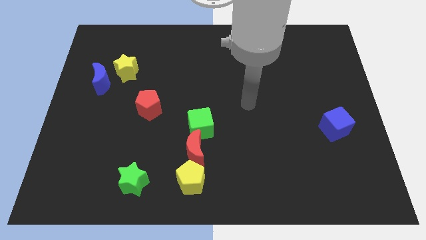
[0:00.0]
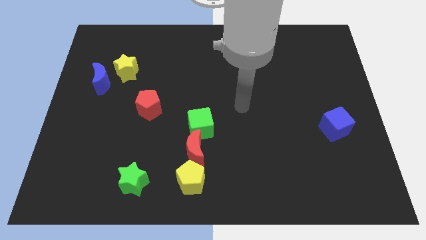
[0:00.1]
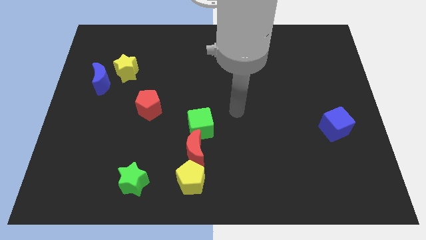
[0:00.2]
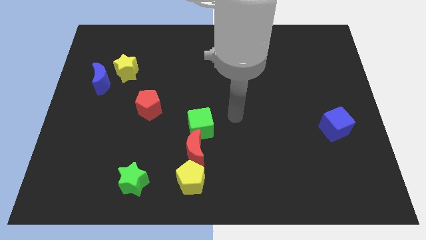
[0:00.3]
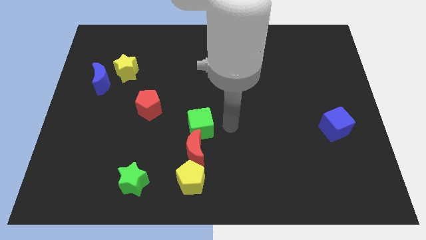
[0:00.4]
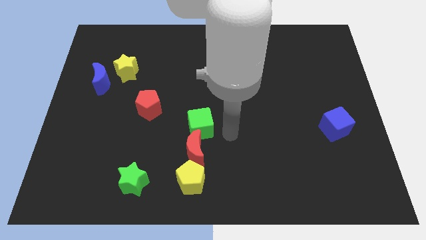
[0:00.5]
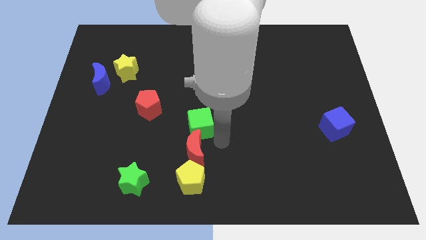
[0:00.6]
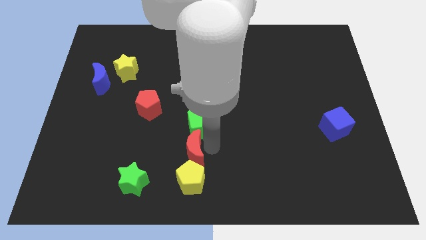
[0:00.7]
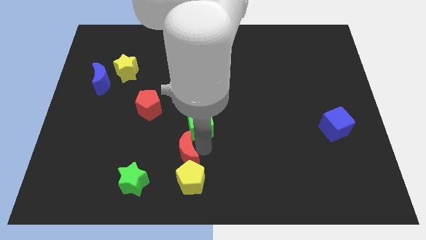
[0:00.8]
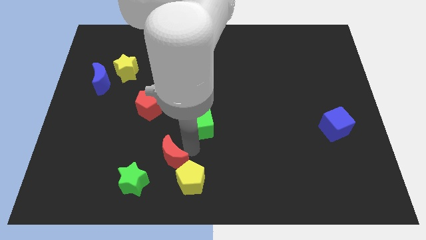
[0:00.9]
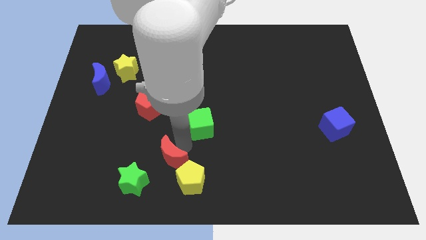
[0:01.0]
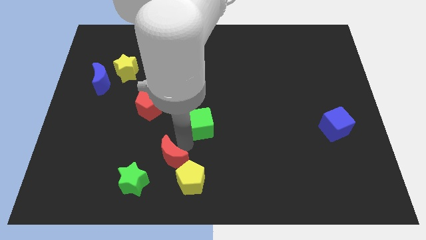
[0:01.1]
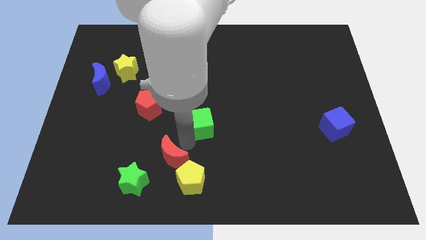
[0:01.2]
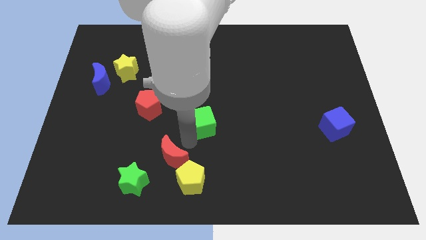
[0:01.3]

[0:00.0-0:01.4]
separate the green cube from the red moon

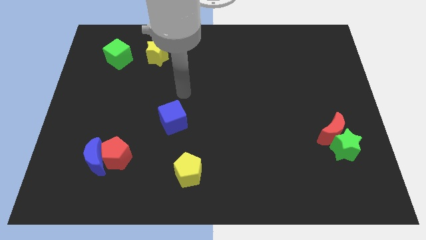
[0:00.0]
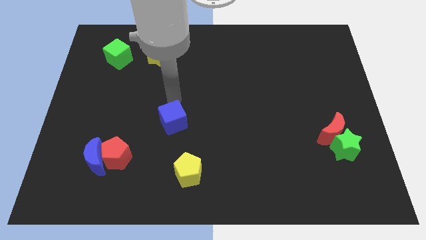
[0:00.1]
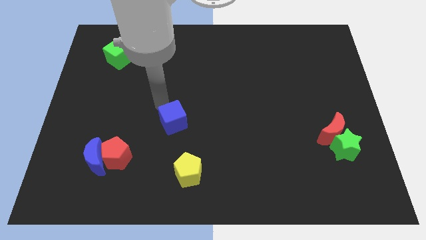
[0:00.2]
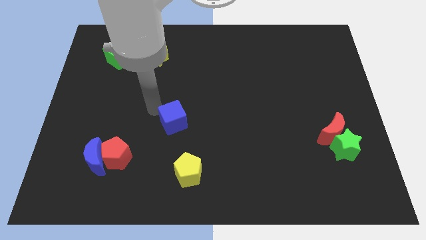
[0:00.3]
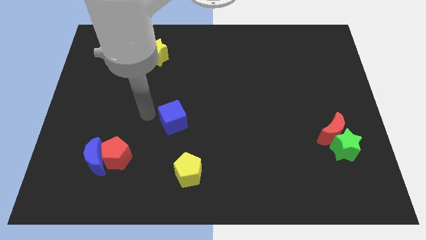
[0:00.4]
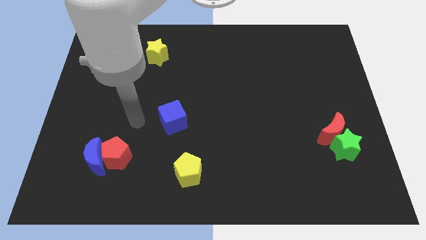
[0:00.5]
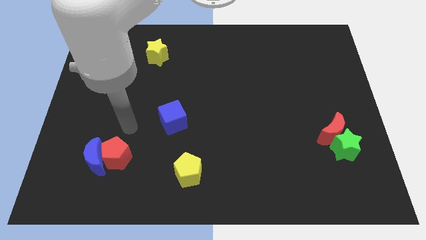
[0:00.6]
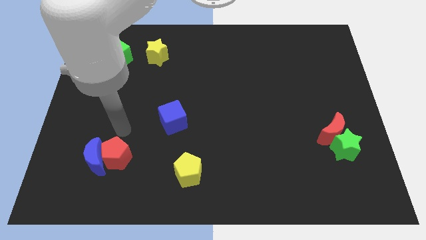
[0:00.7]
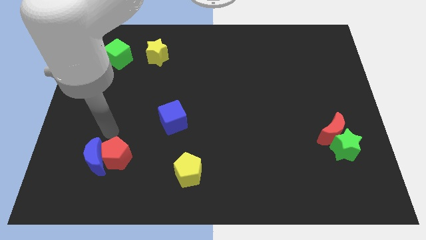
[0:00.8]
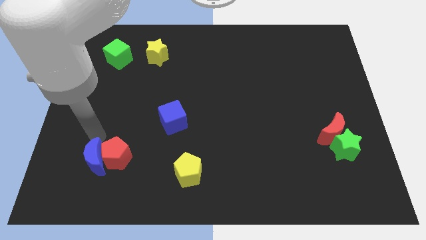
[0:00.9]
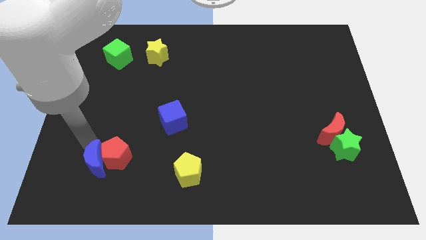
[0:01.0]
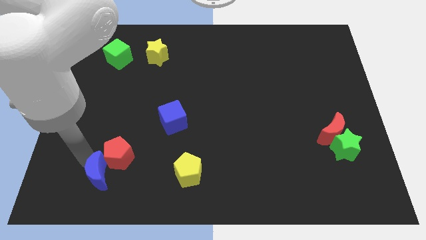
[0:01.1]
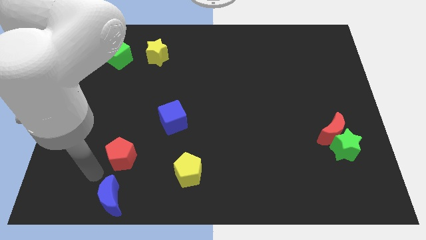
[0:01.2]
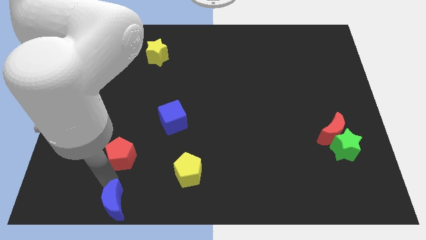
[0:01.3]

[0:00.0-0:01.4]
move the red pentagon away from the blue moon

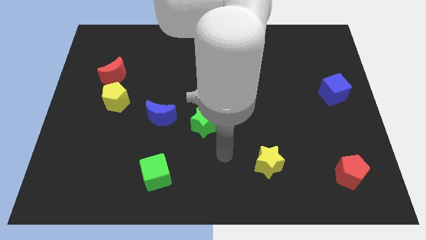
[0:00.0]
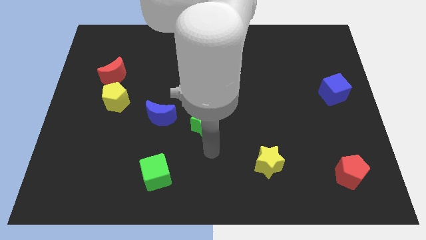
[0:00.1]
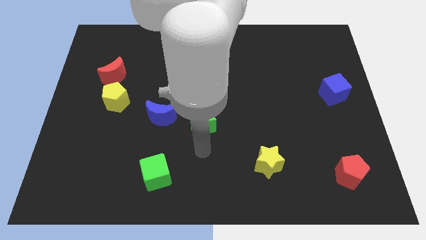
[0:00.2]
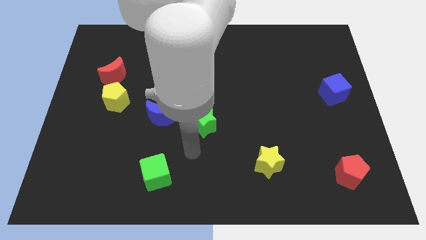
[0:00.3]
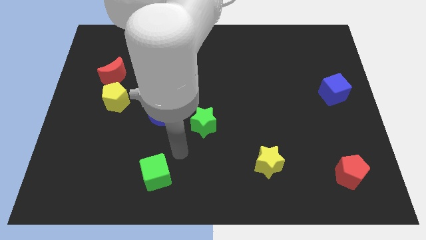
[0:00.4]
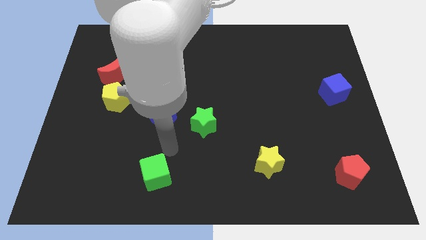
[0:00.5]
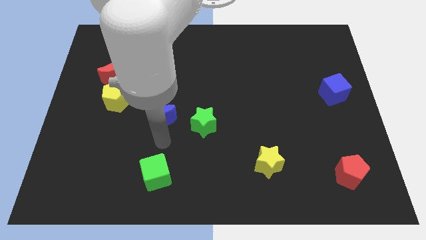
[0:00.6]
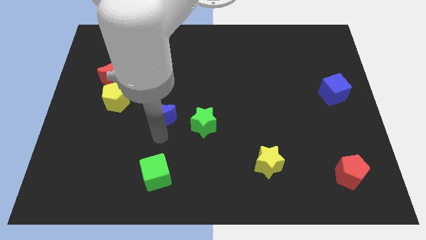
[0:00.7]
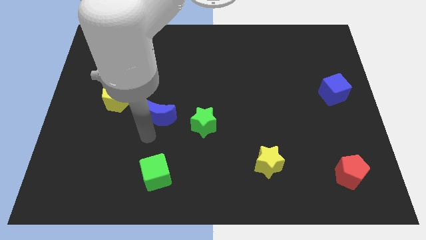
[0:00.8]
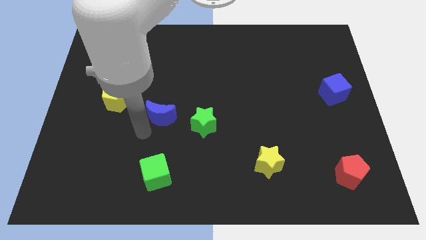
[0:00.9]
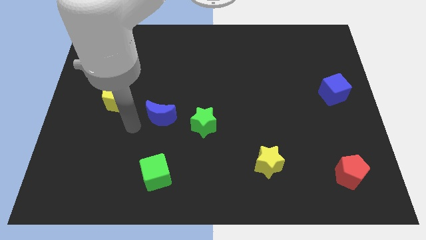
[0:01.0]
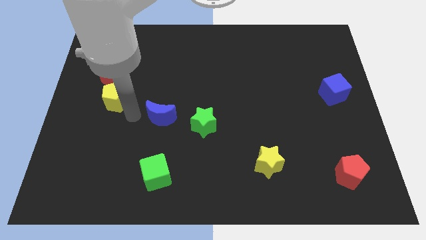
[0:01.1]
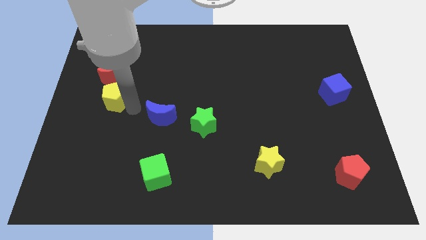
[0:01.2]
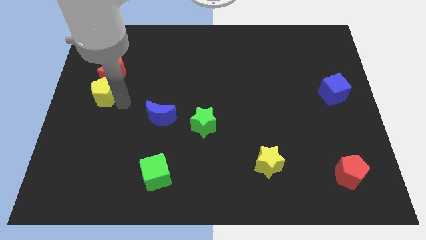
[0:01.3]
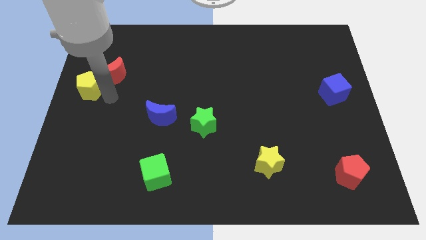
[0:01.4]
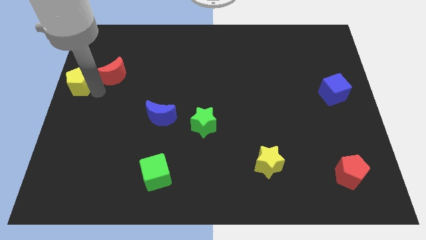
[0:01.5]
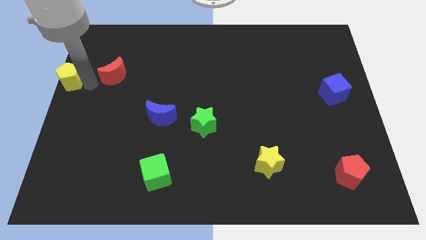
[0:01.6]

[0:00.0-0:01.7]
separate the red moon from the yellow pentagon

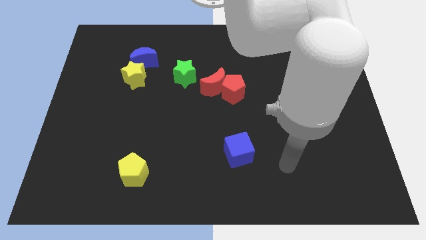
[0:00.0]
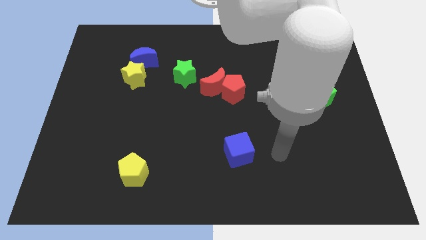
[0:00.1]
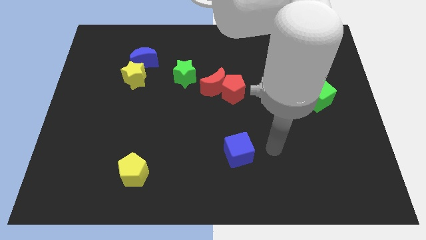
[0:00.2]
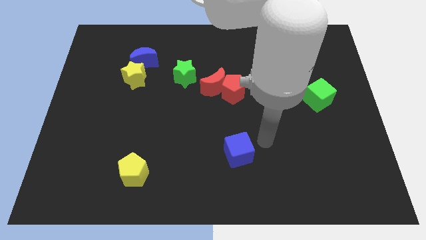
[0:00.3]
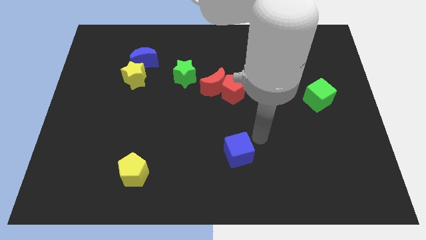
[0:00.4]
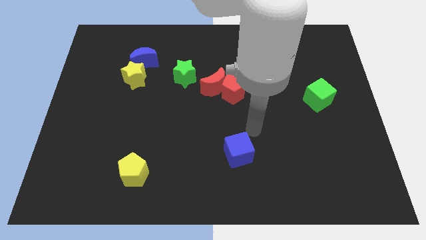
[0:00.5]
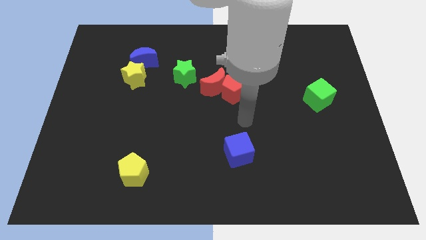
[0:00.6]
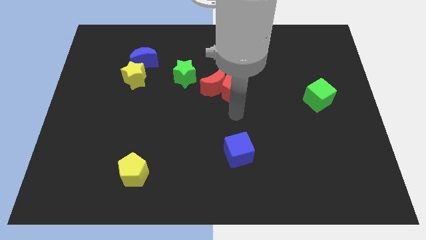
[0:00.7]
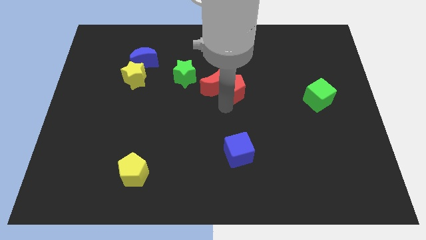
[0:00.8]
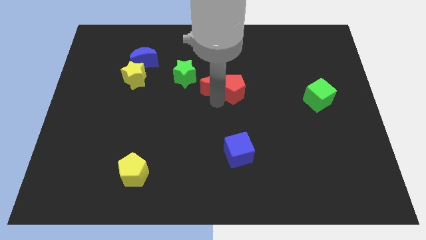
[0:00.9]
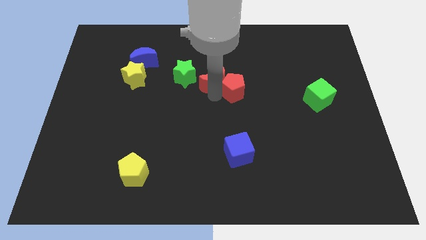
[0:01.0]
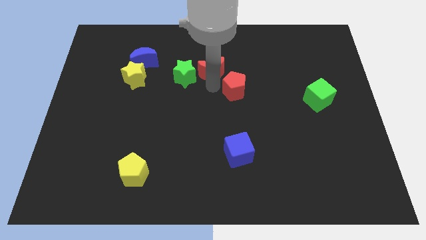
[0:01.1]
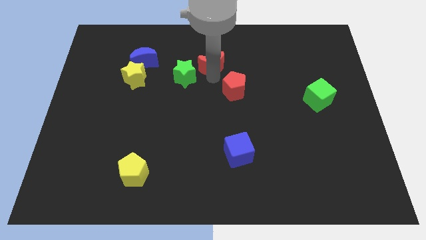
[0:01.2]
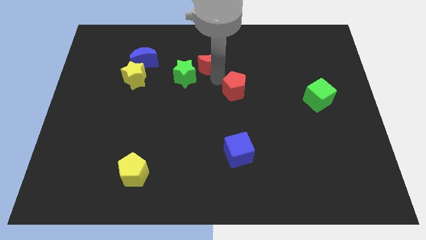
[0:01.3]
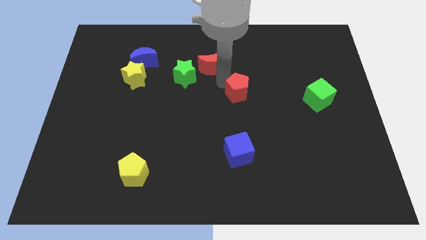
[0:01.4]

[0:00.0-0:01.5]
pull the red pentagon apart from the red moon

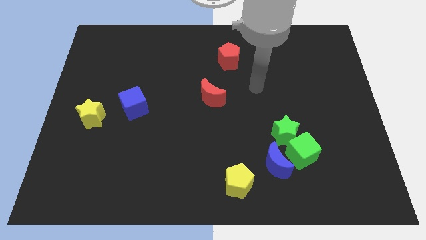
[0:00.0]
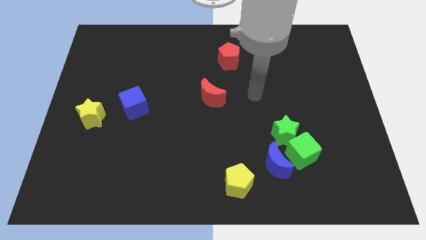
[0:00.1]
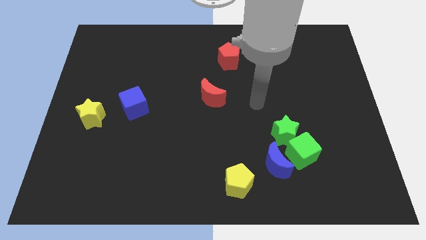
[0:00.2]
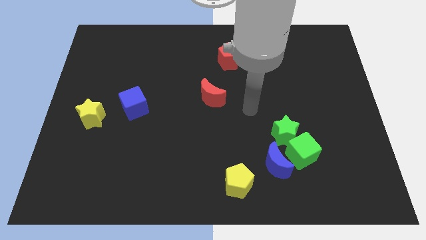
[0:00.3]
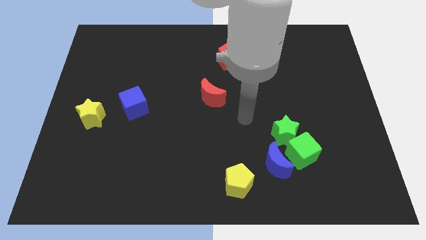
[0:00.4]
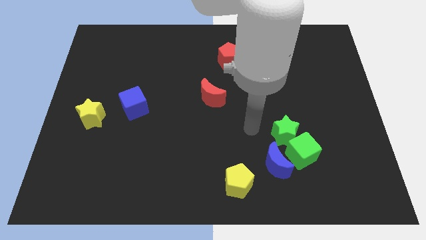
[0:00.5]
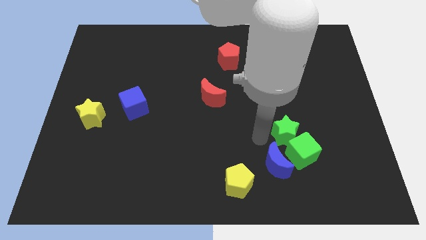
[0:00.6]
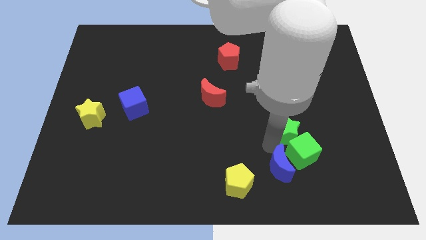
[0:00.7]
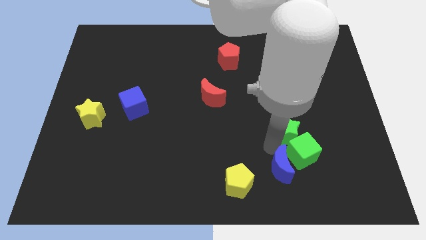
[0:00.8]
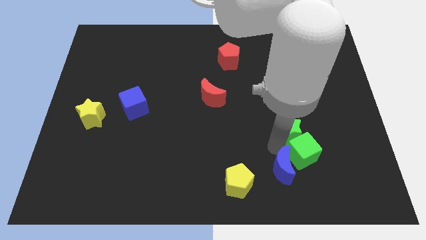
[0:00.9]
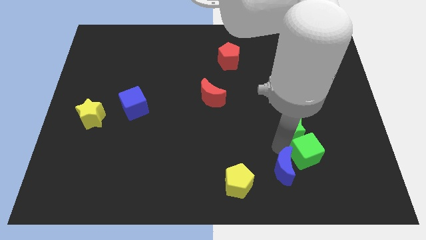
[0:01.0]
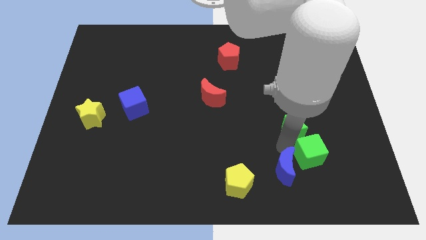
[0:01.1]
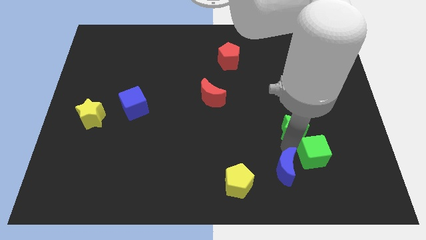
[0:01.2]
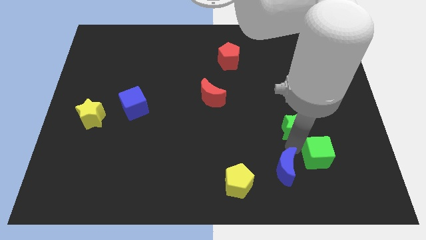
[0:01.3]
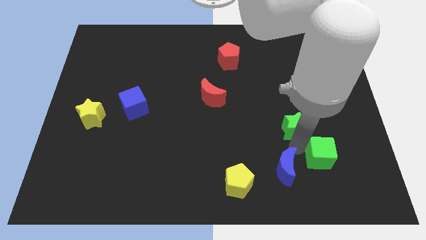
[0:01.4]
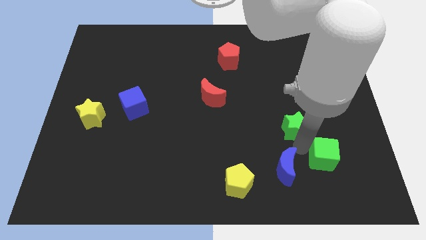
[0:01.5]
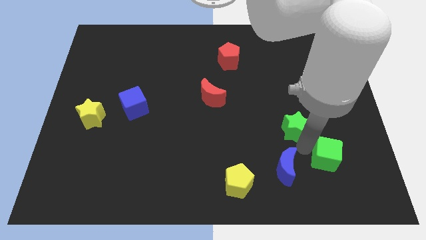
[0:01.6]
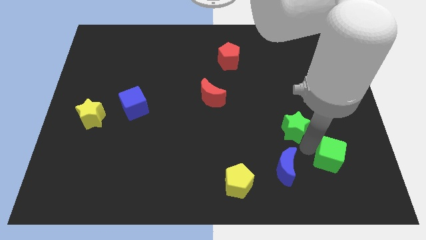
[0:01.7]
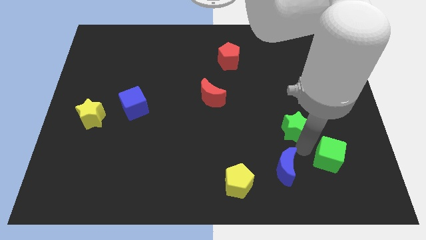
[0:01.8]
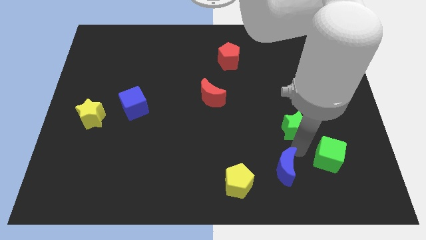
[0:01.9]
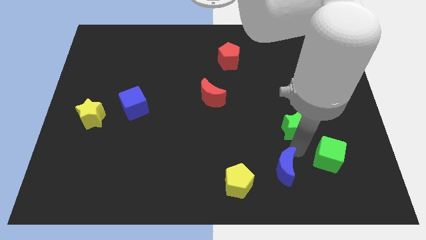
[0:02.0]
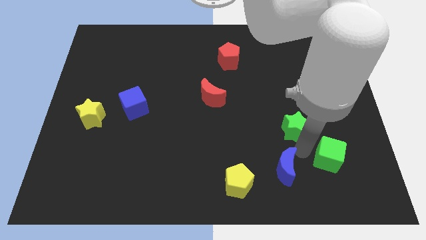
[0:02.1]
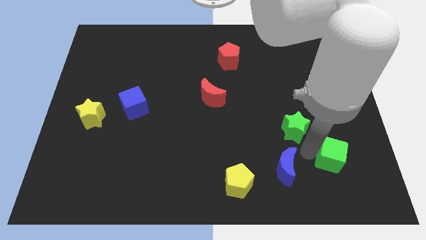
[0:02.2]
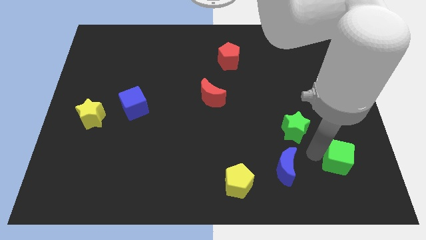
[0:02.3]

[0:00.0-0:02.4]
pull the green cube apart from the green star and blue moon

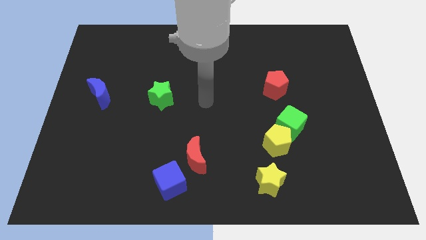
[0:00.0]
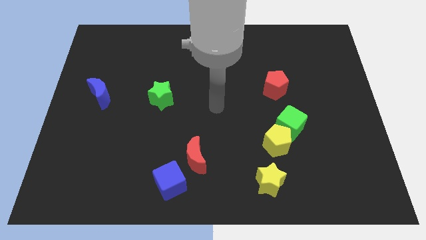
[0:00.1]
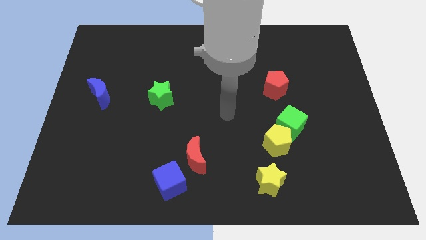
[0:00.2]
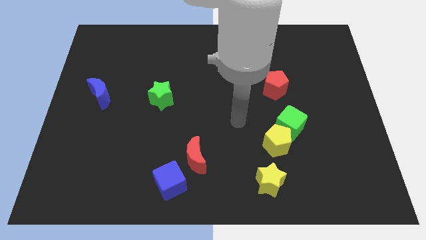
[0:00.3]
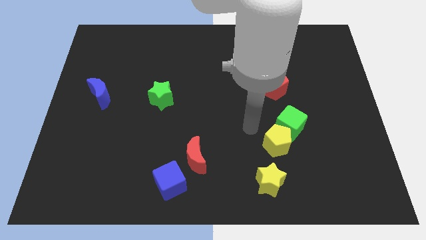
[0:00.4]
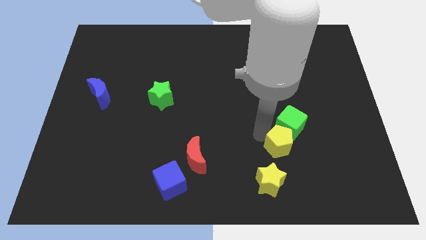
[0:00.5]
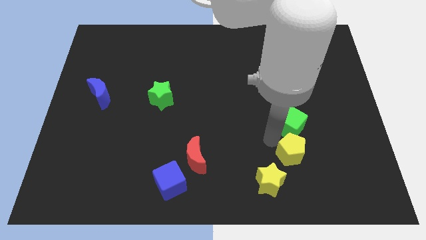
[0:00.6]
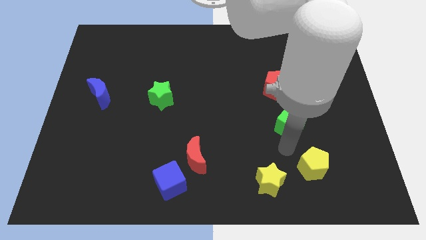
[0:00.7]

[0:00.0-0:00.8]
move the green cube away from the yellow pentagon
